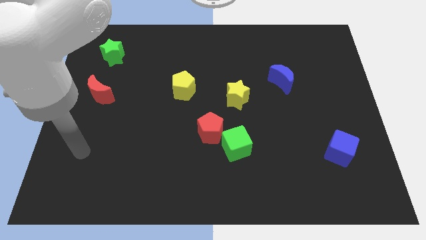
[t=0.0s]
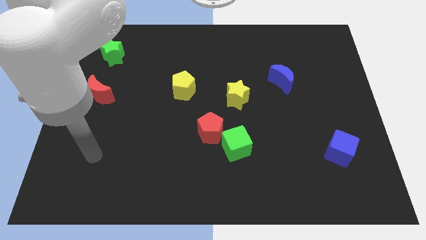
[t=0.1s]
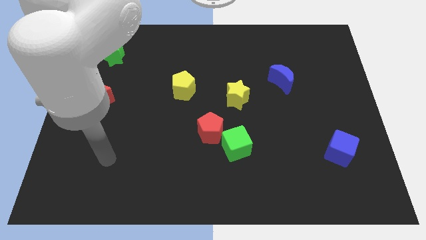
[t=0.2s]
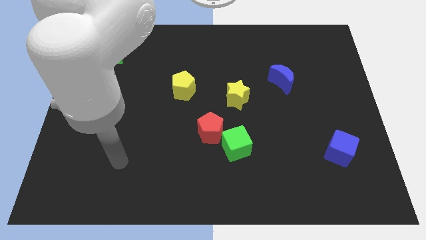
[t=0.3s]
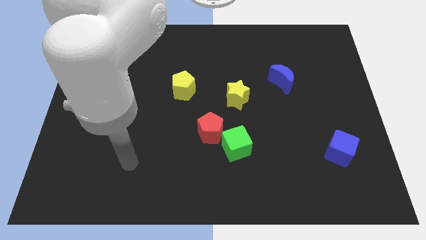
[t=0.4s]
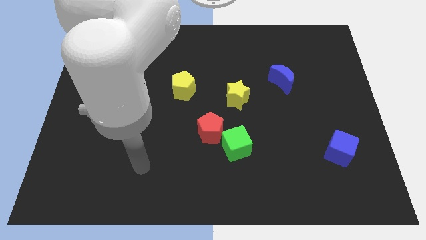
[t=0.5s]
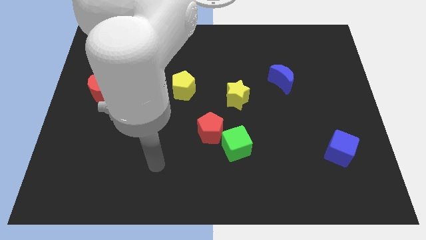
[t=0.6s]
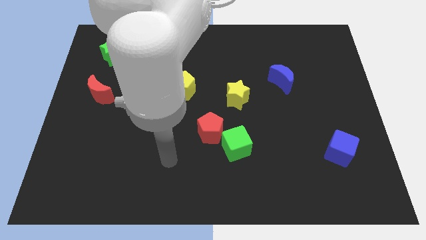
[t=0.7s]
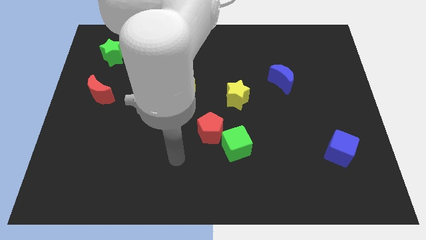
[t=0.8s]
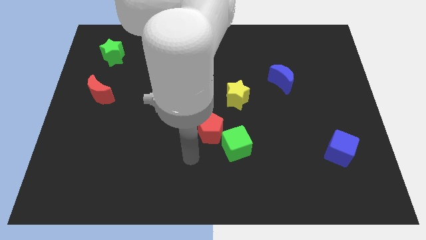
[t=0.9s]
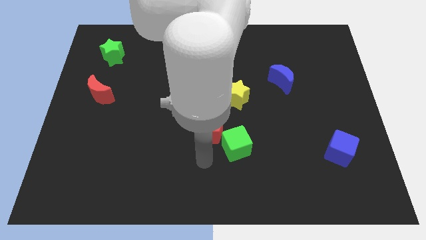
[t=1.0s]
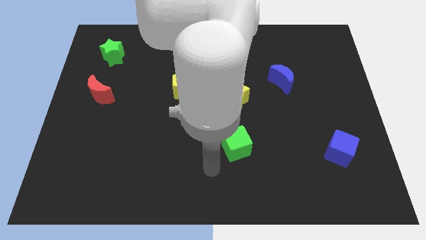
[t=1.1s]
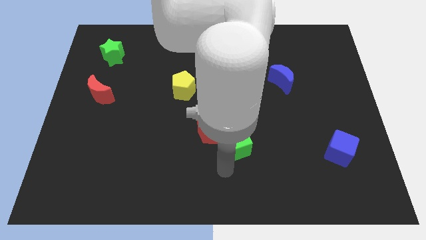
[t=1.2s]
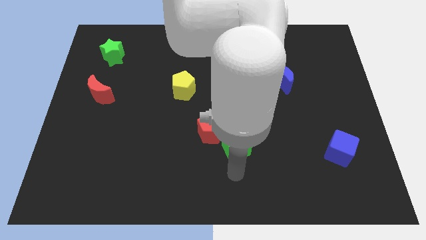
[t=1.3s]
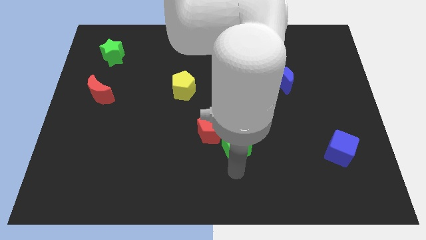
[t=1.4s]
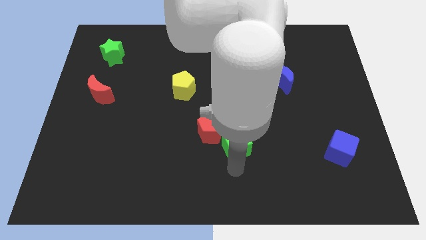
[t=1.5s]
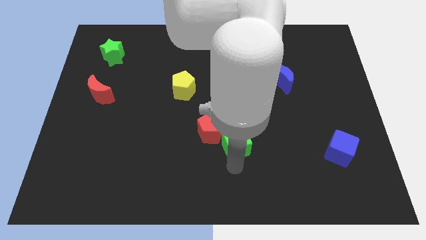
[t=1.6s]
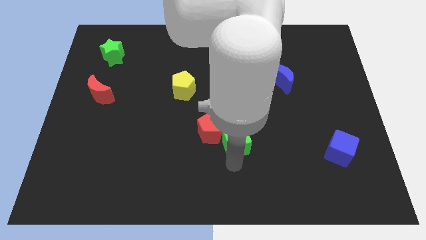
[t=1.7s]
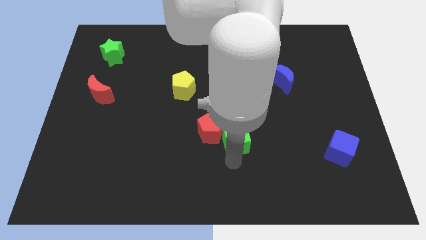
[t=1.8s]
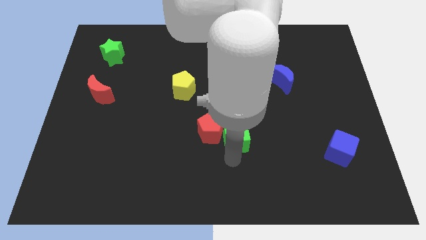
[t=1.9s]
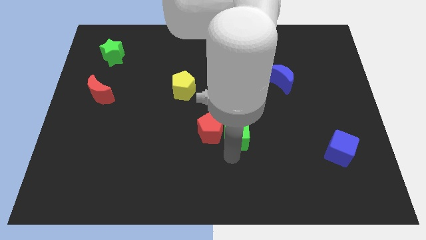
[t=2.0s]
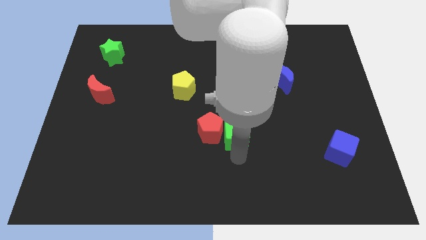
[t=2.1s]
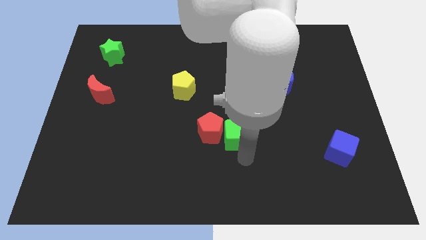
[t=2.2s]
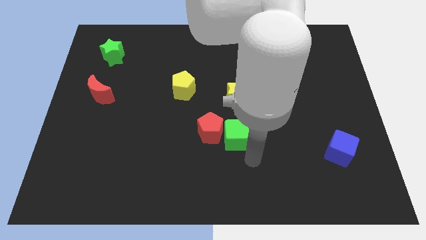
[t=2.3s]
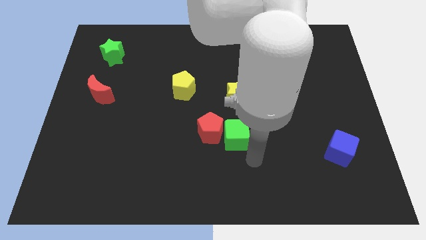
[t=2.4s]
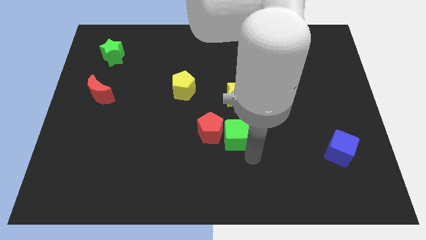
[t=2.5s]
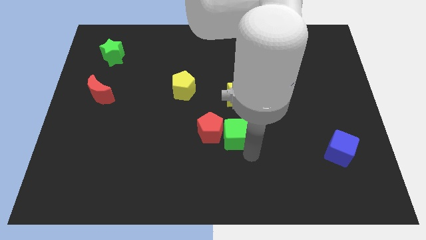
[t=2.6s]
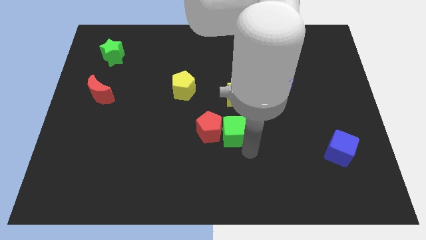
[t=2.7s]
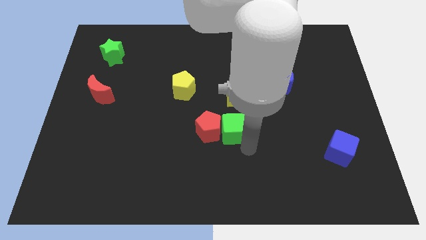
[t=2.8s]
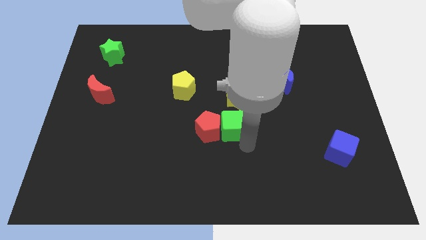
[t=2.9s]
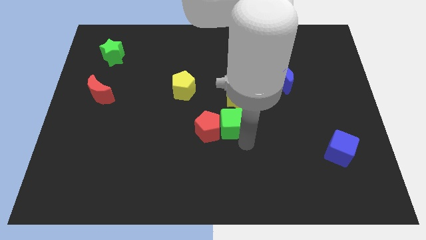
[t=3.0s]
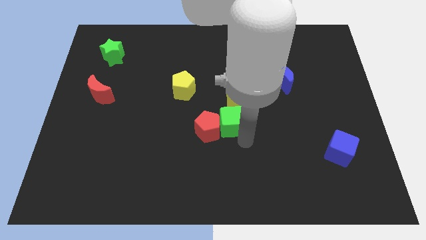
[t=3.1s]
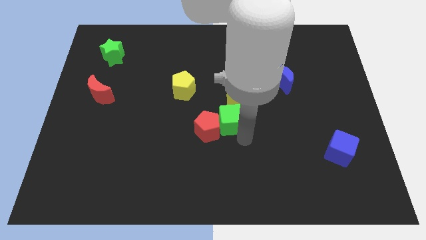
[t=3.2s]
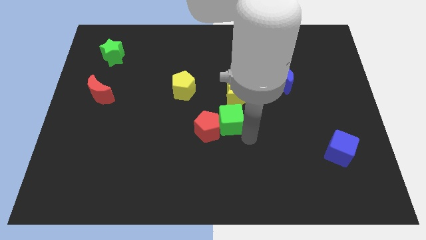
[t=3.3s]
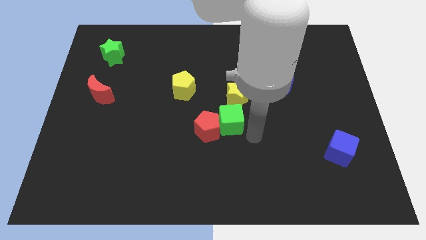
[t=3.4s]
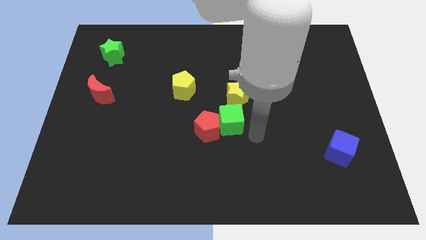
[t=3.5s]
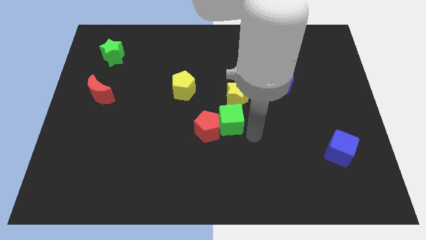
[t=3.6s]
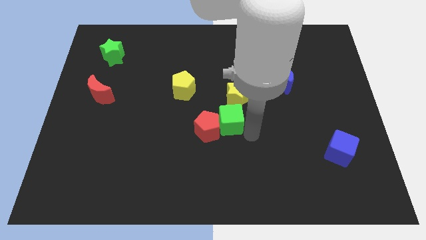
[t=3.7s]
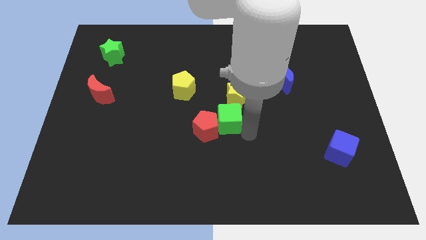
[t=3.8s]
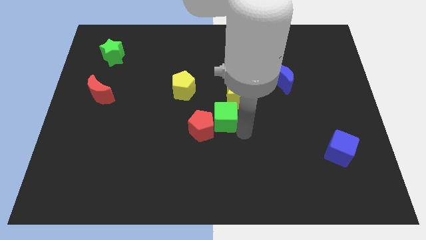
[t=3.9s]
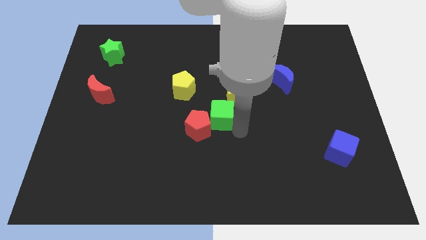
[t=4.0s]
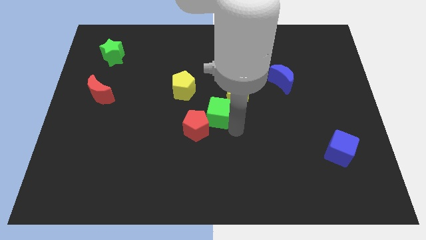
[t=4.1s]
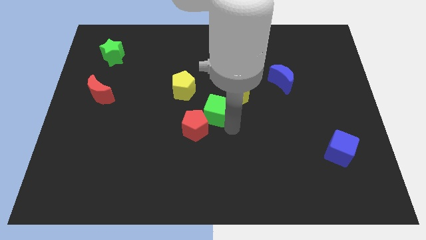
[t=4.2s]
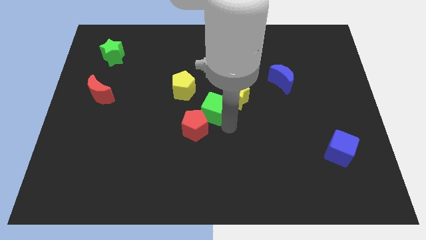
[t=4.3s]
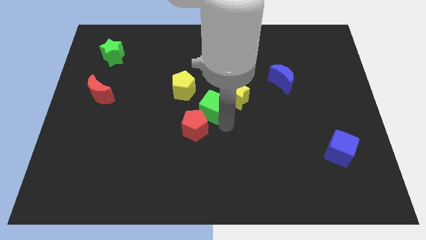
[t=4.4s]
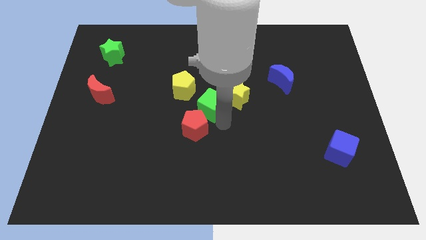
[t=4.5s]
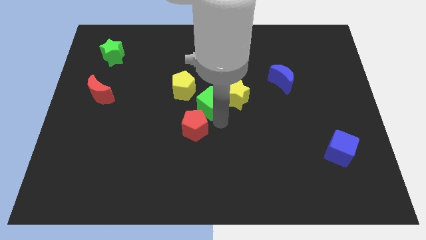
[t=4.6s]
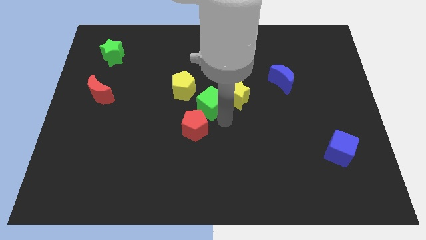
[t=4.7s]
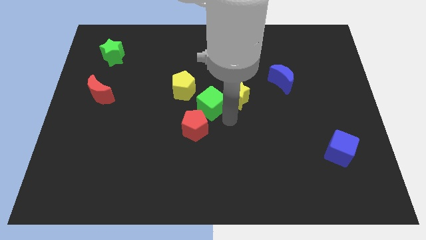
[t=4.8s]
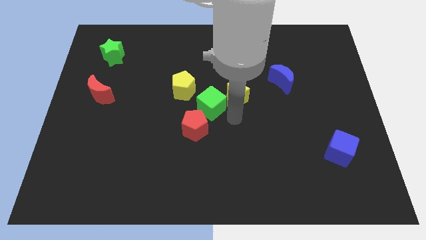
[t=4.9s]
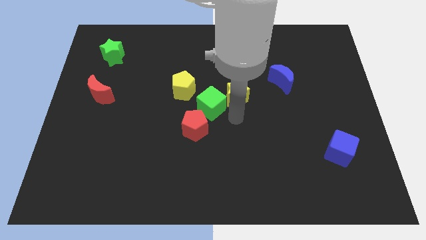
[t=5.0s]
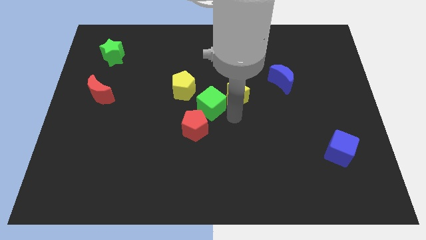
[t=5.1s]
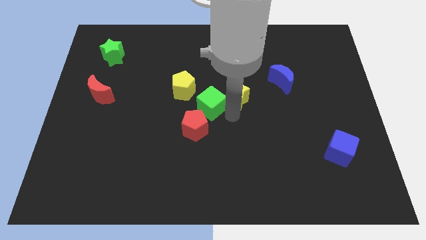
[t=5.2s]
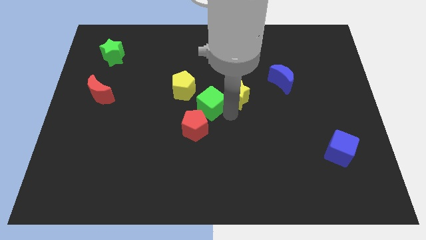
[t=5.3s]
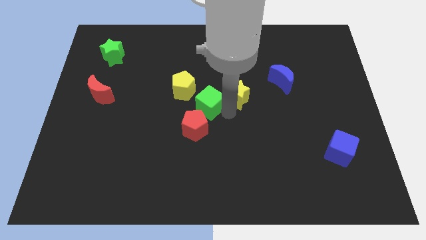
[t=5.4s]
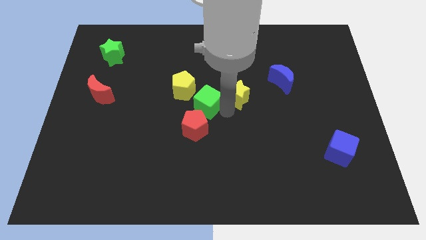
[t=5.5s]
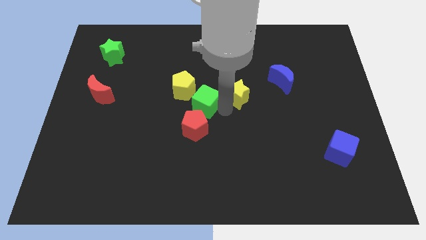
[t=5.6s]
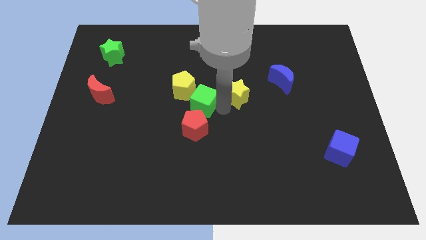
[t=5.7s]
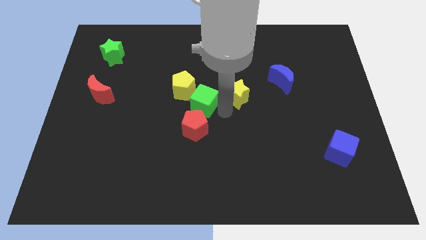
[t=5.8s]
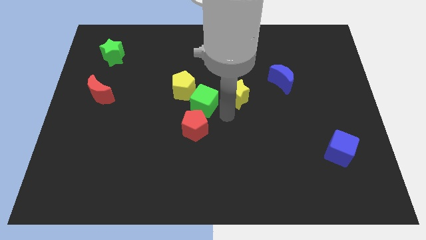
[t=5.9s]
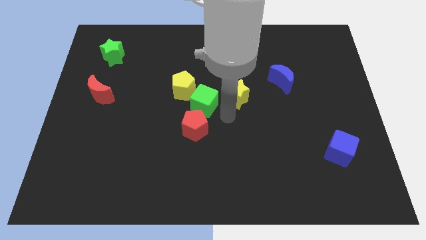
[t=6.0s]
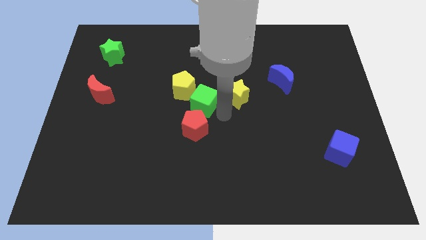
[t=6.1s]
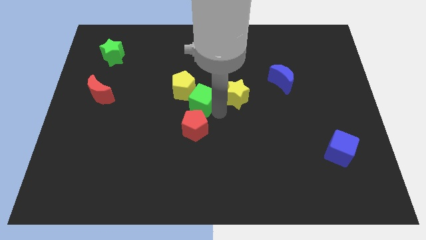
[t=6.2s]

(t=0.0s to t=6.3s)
put the green cube close to the yellow pentagon

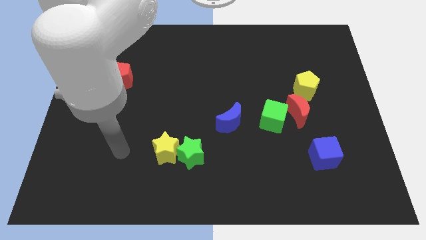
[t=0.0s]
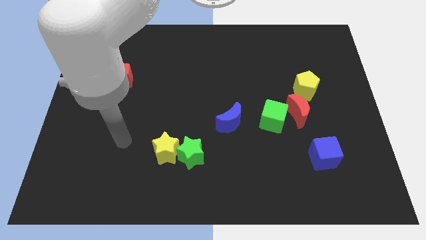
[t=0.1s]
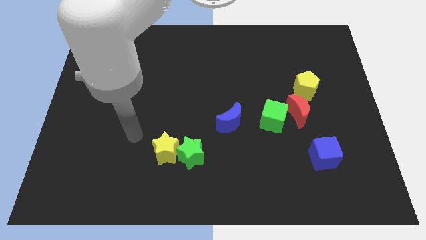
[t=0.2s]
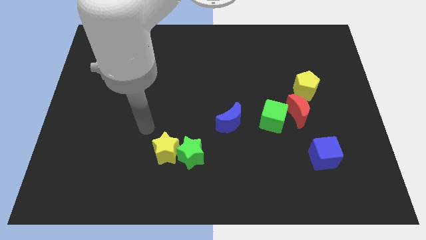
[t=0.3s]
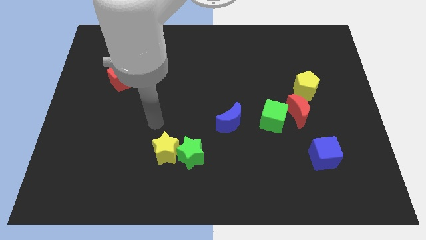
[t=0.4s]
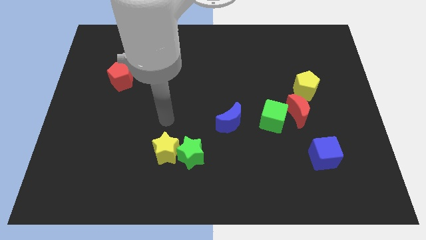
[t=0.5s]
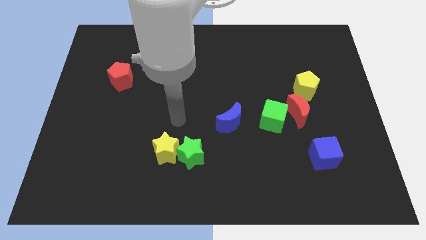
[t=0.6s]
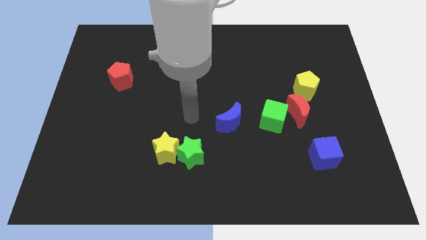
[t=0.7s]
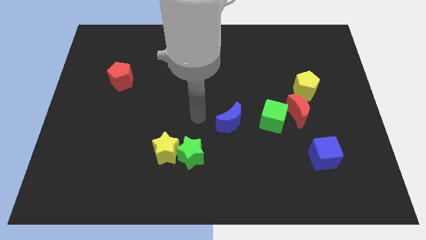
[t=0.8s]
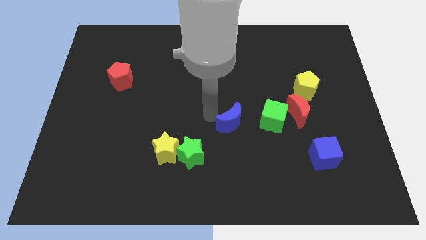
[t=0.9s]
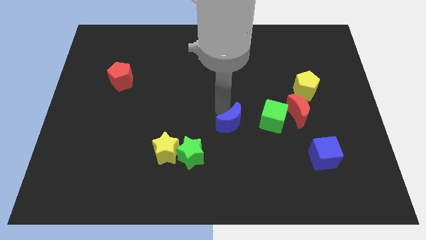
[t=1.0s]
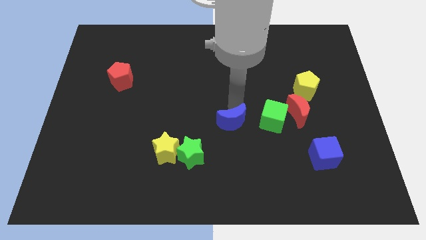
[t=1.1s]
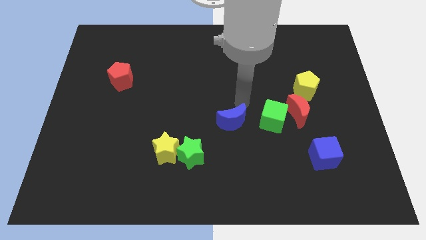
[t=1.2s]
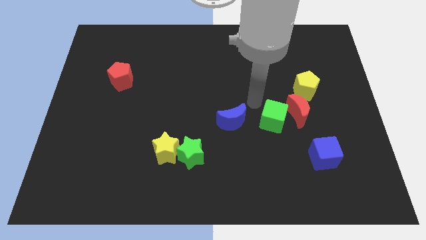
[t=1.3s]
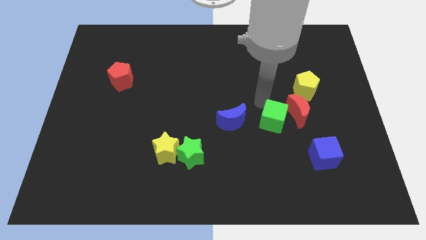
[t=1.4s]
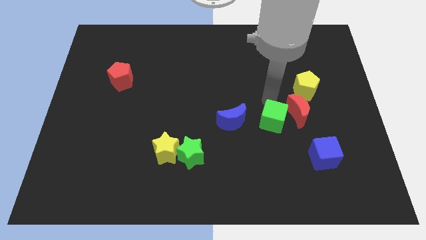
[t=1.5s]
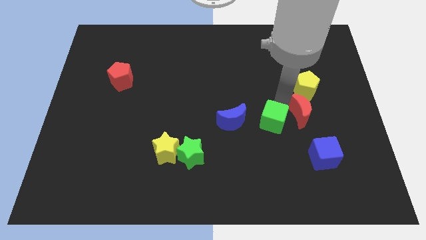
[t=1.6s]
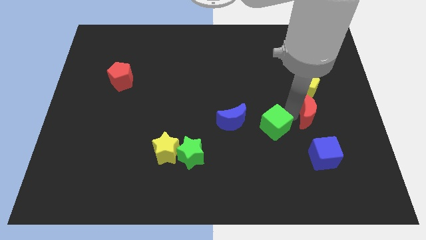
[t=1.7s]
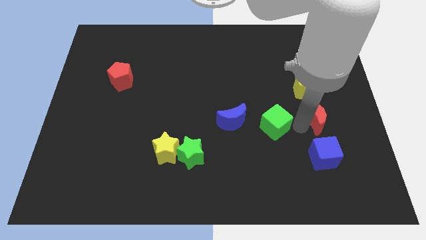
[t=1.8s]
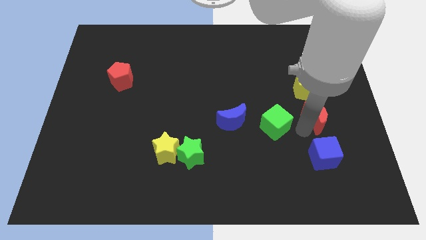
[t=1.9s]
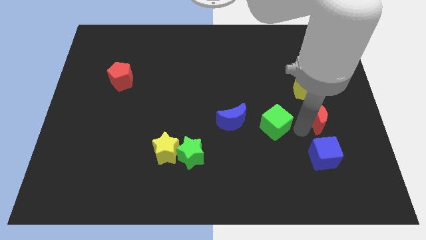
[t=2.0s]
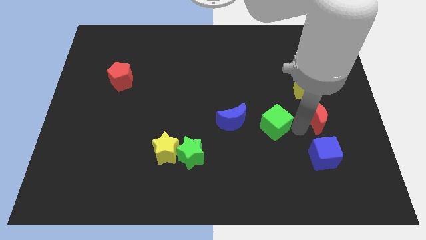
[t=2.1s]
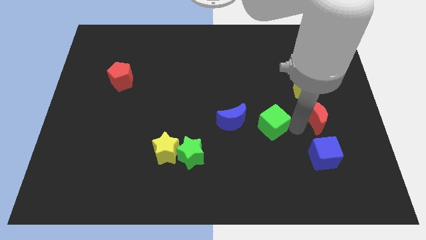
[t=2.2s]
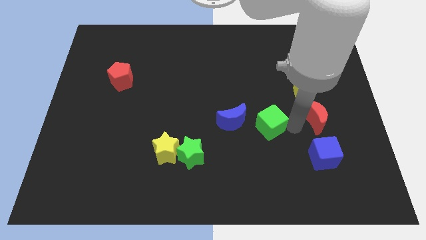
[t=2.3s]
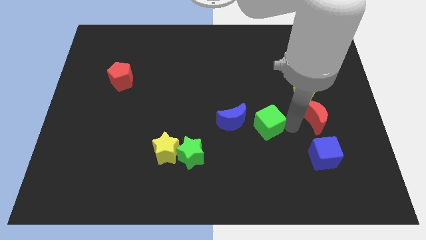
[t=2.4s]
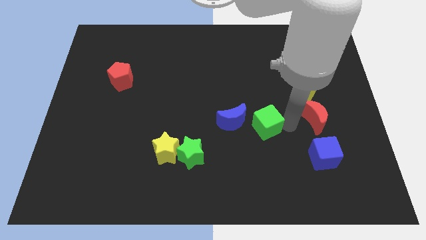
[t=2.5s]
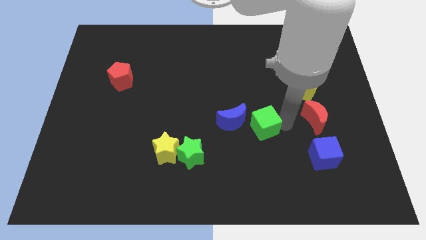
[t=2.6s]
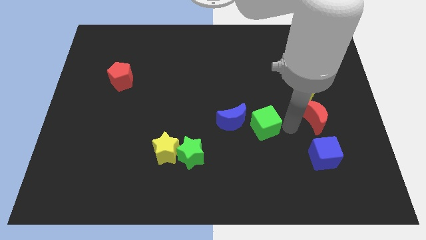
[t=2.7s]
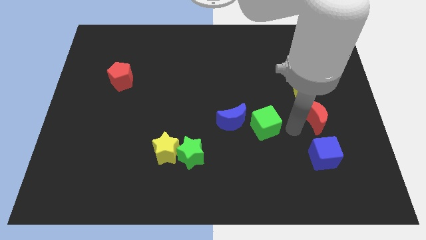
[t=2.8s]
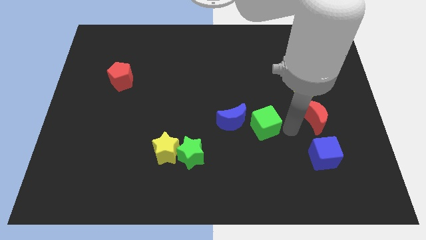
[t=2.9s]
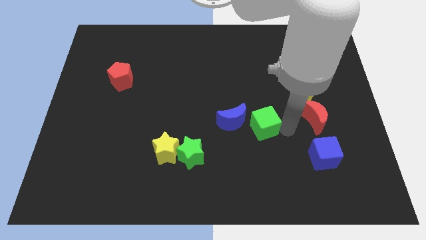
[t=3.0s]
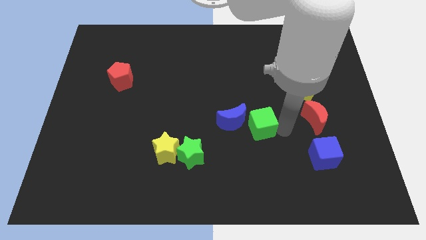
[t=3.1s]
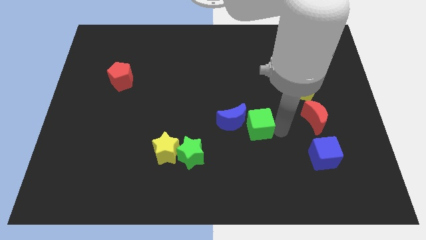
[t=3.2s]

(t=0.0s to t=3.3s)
push the green cube to the blue moon
